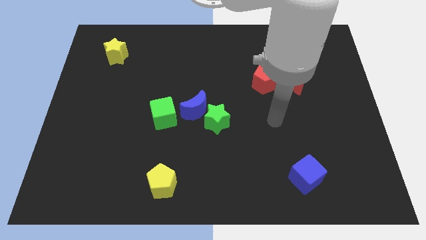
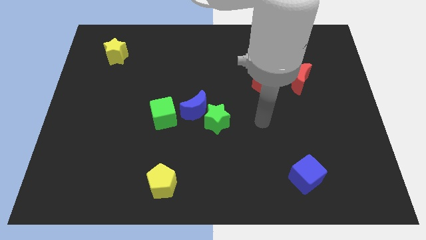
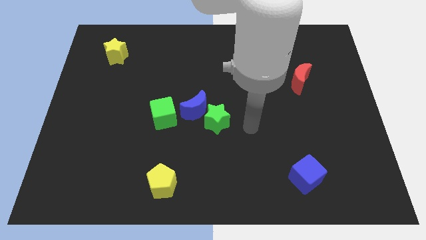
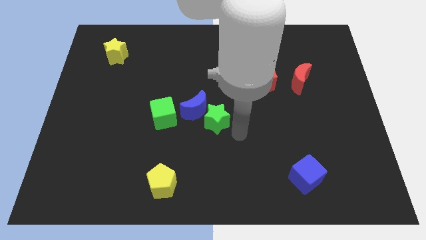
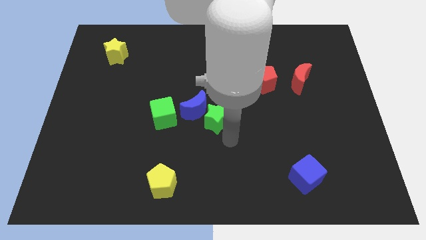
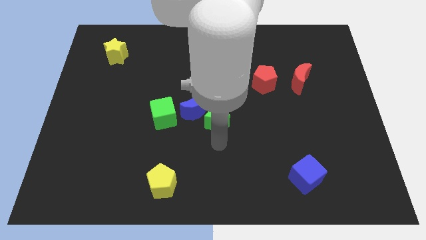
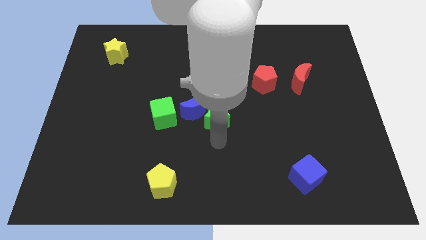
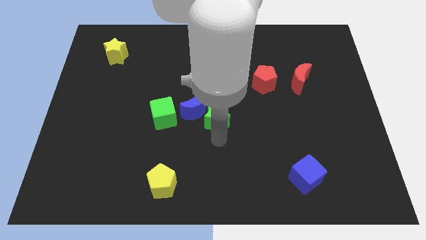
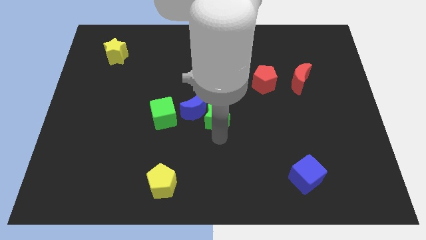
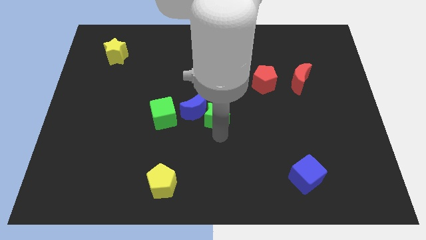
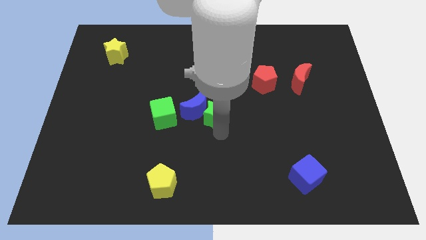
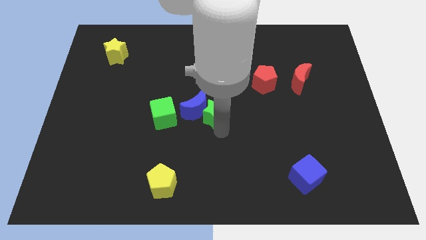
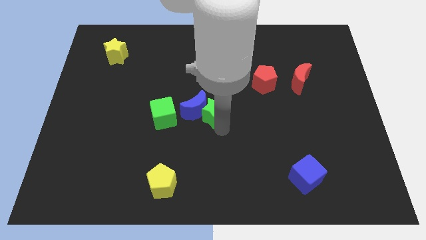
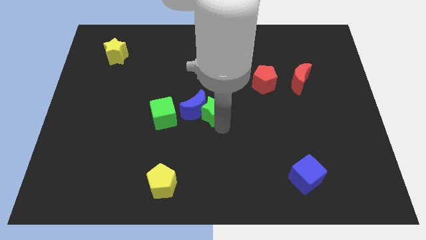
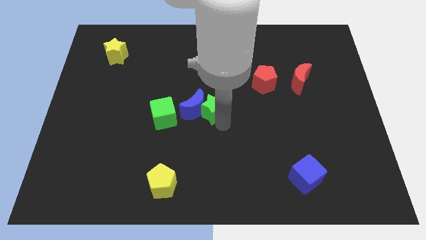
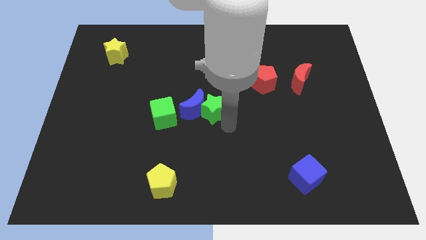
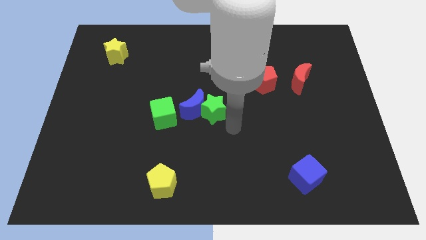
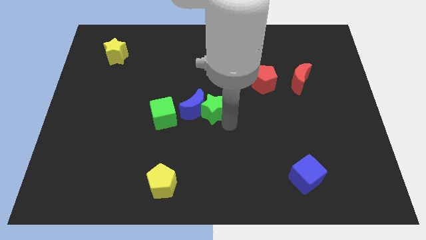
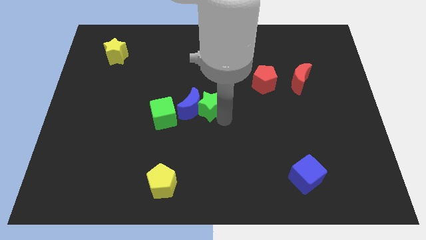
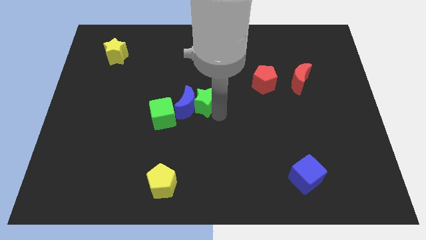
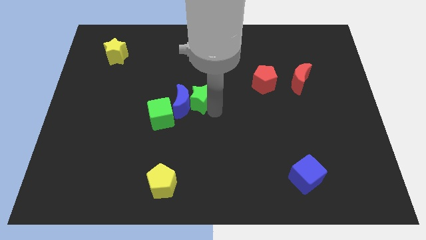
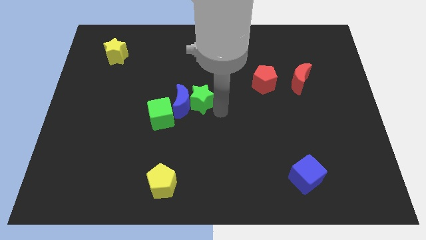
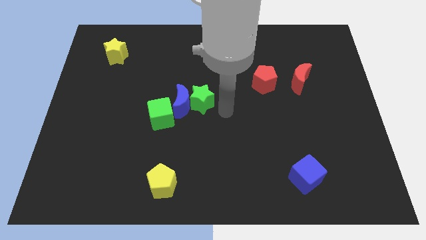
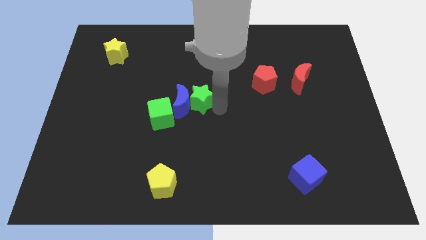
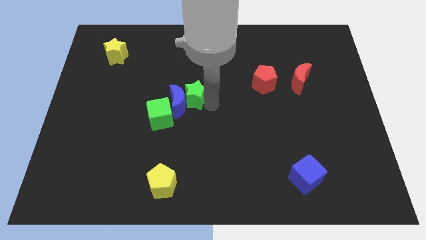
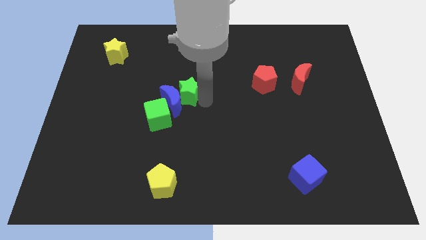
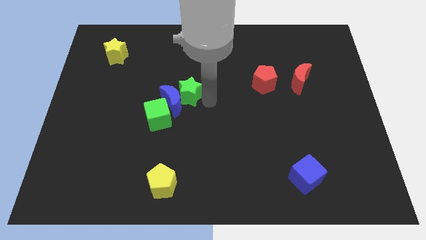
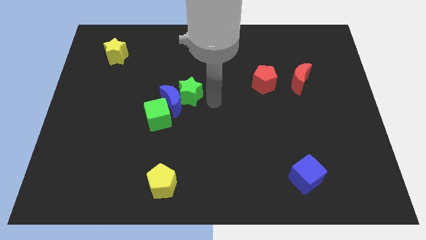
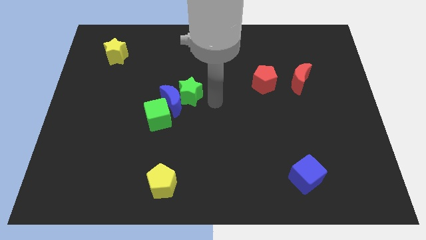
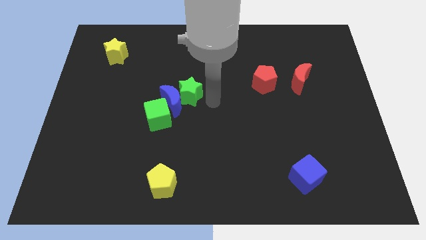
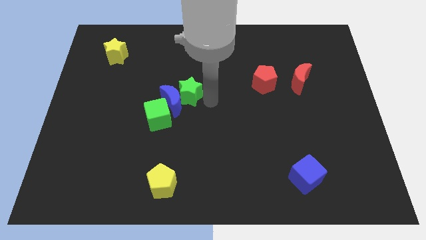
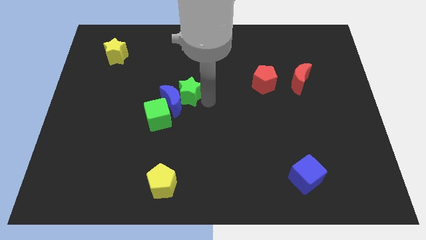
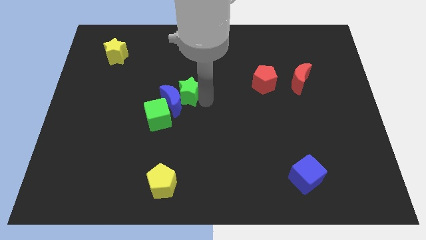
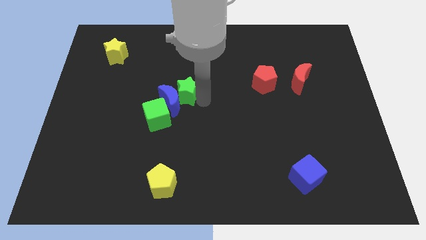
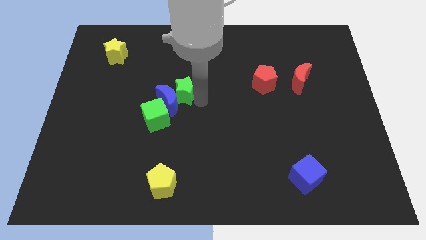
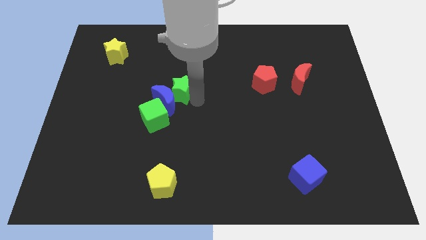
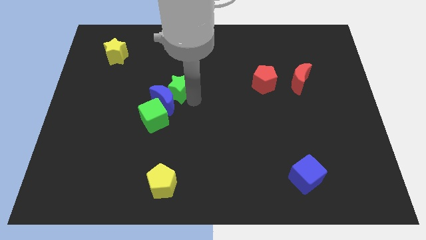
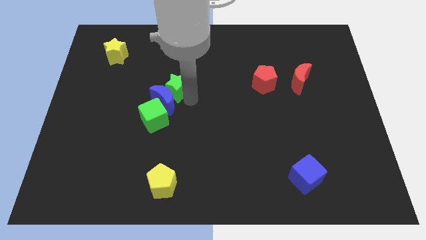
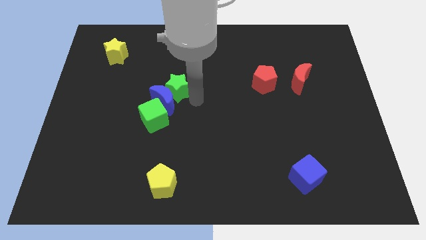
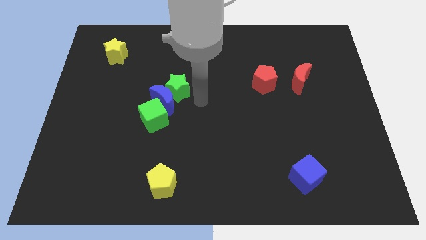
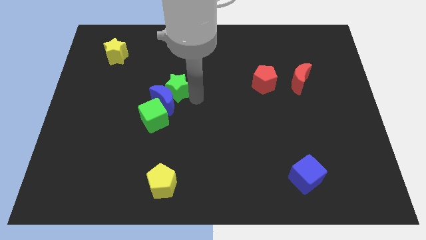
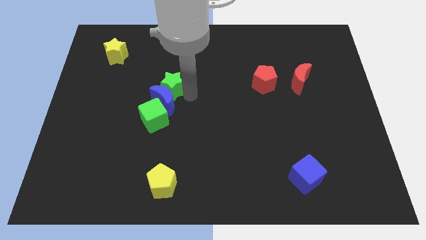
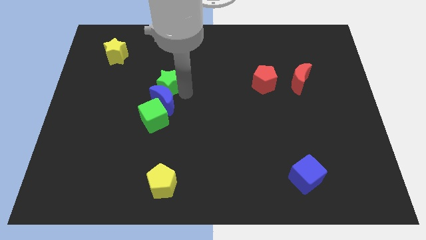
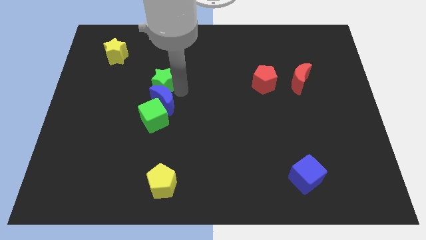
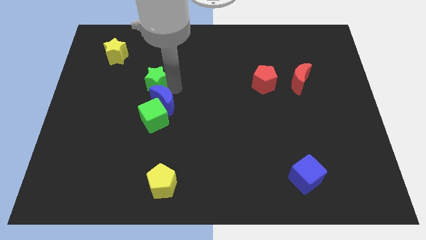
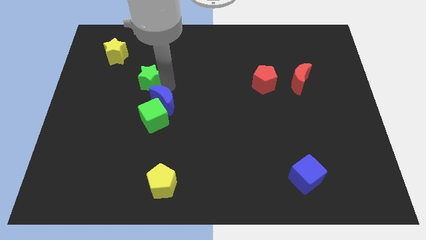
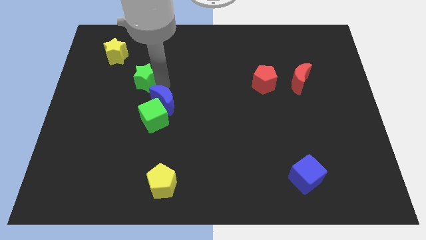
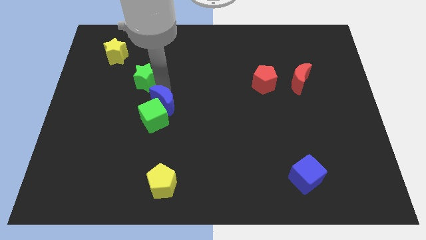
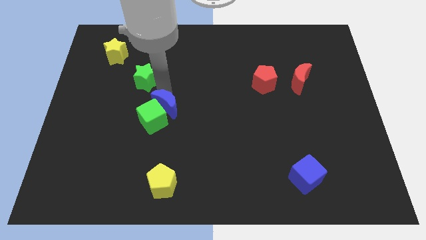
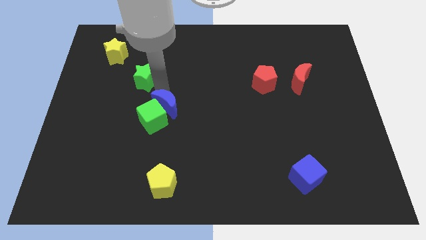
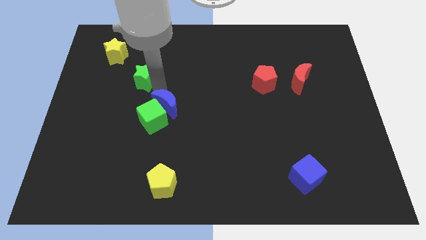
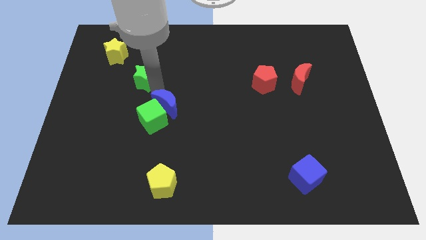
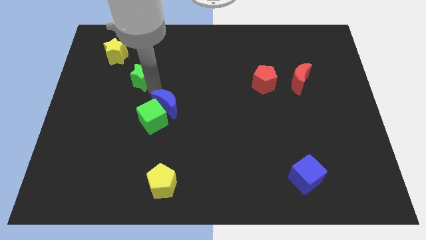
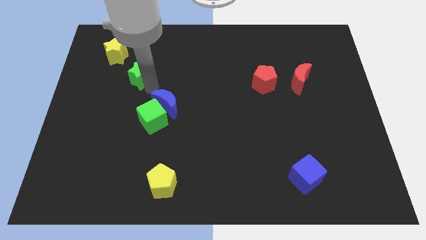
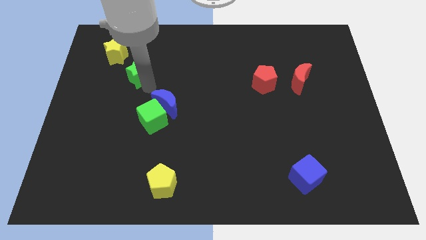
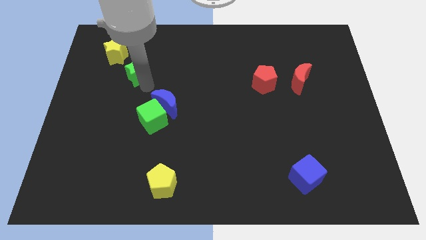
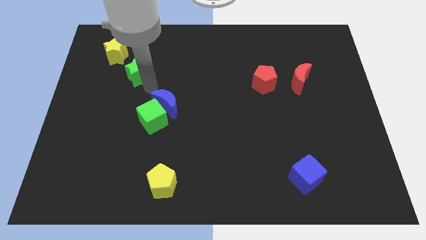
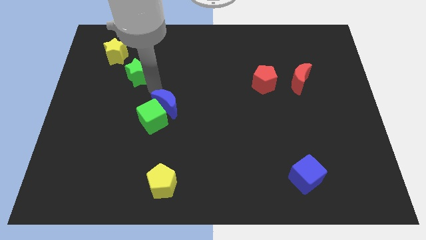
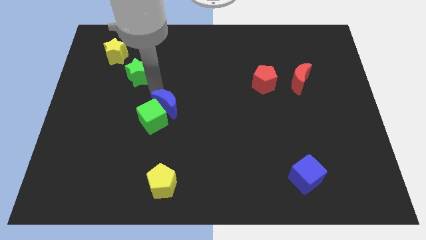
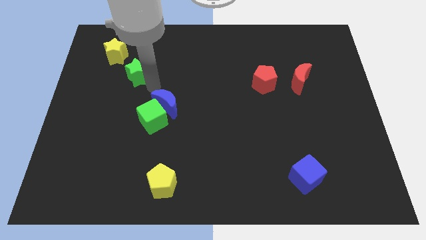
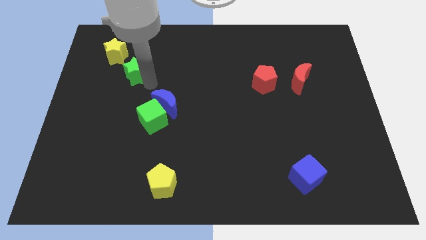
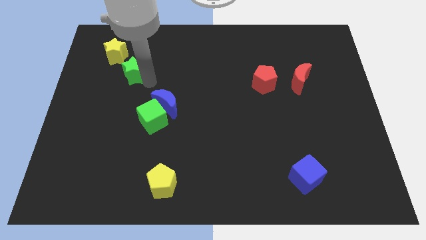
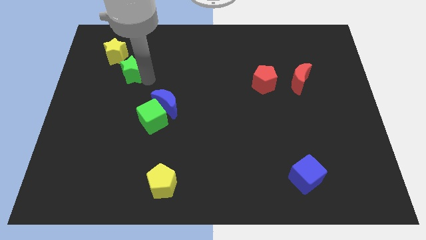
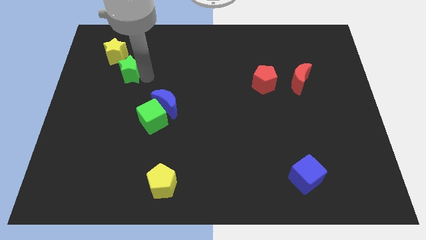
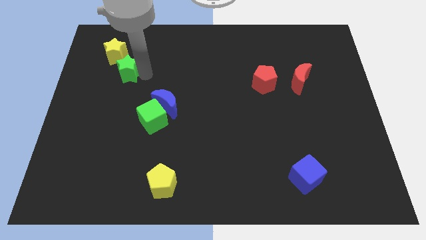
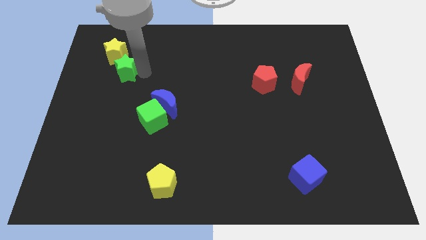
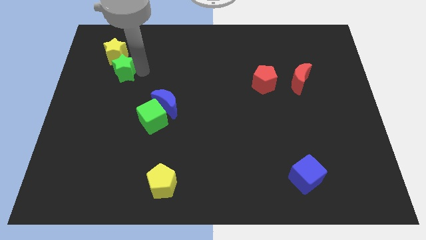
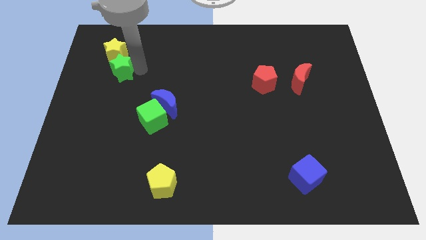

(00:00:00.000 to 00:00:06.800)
put the green star towards the yellow star
